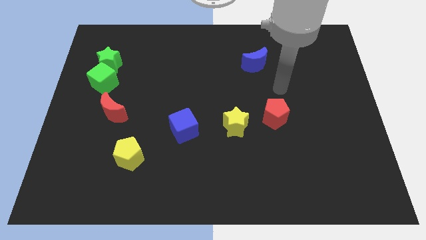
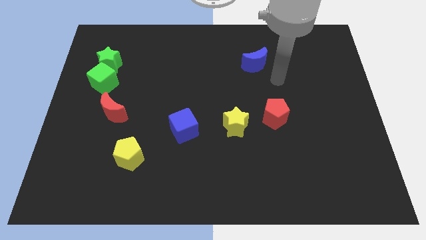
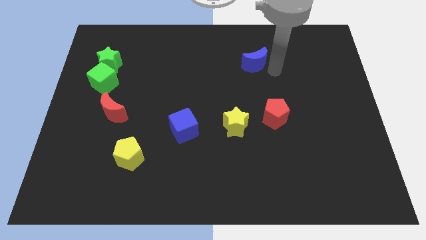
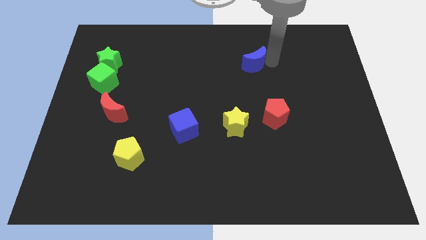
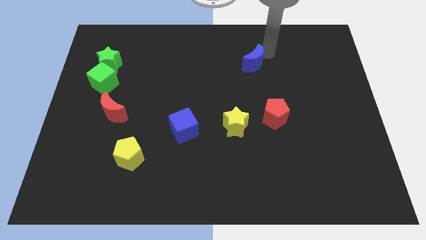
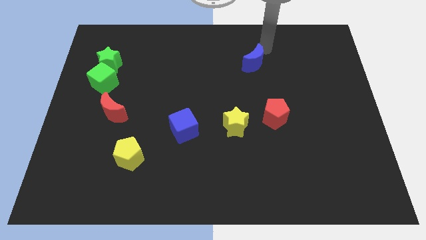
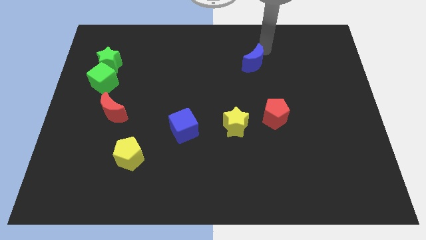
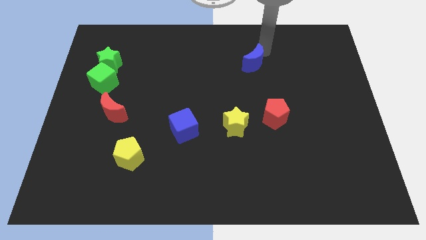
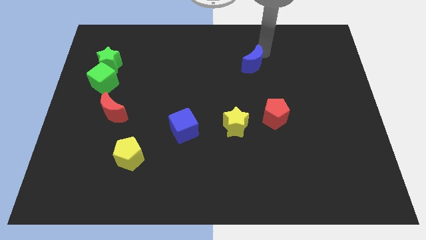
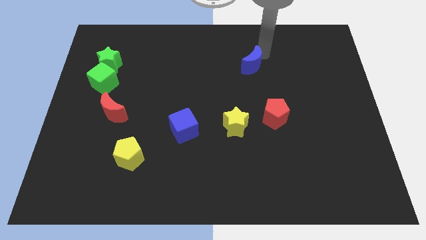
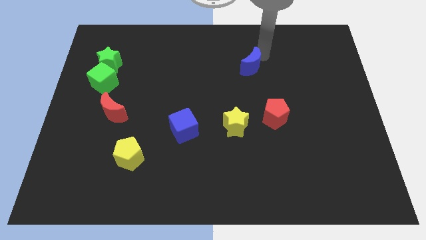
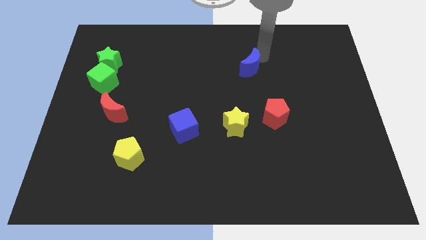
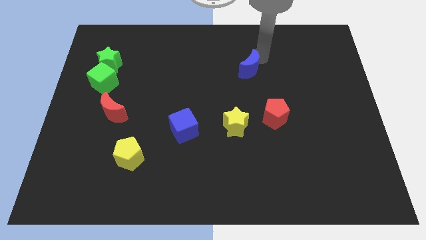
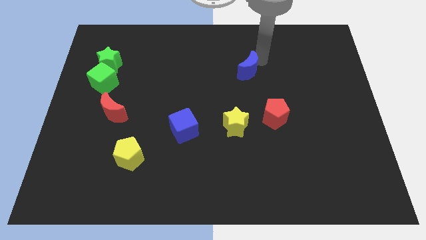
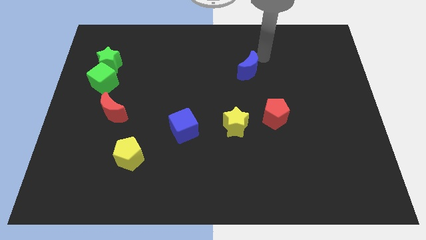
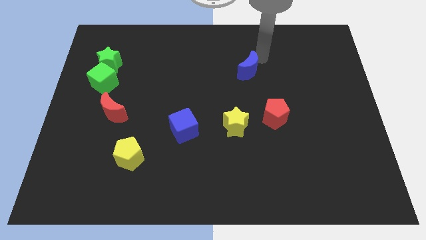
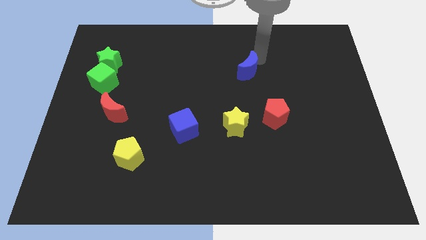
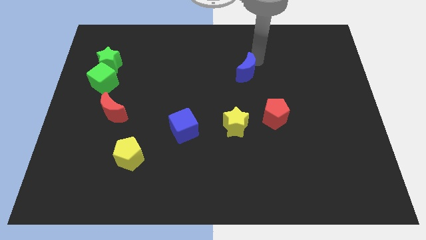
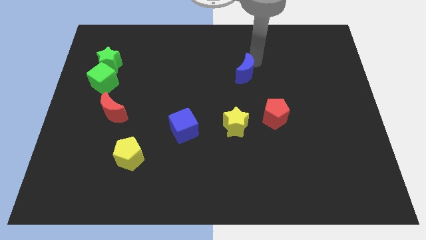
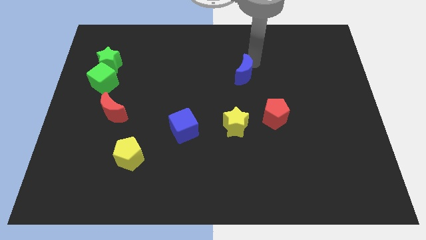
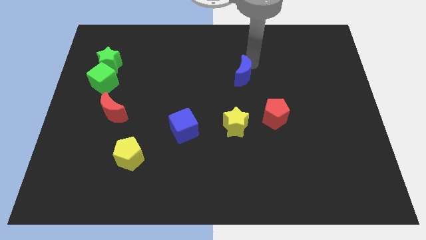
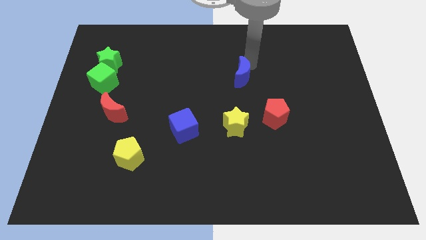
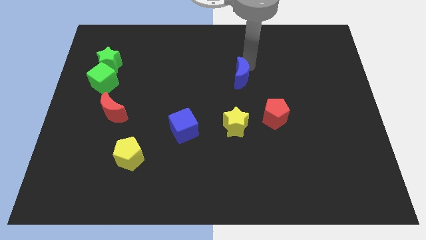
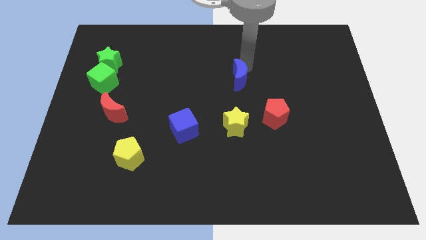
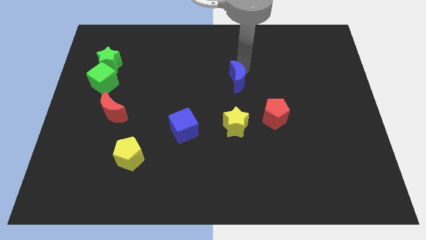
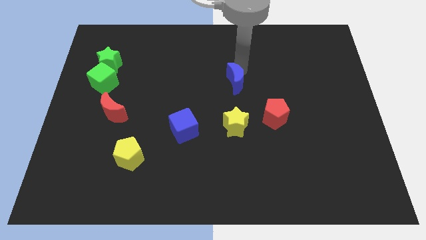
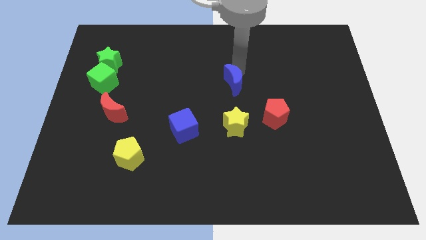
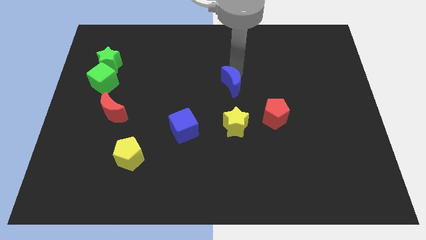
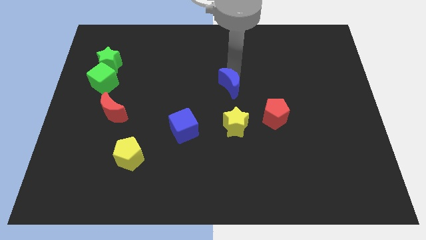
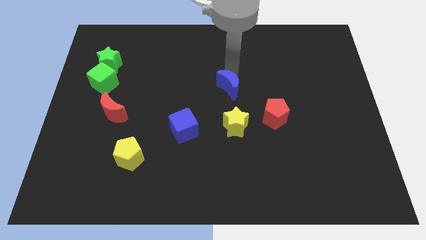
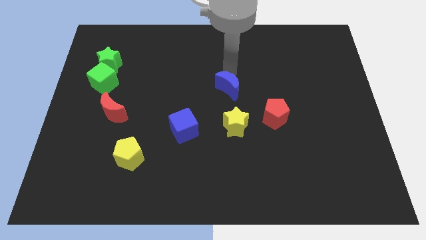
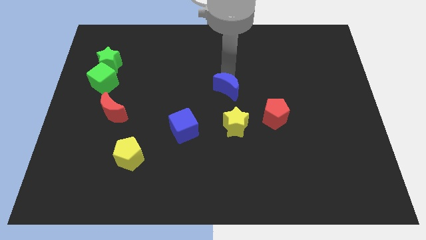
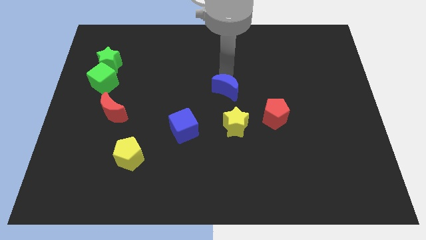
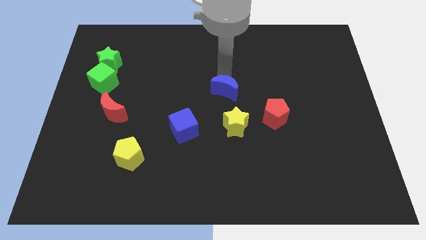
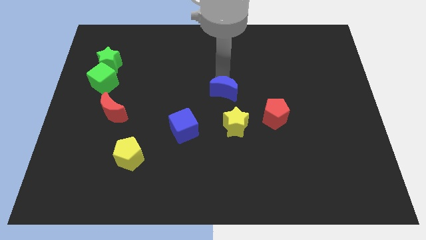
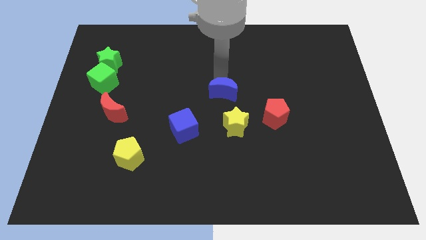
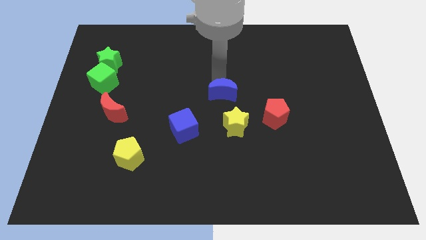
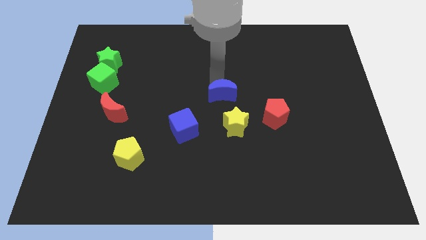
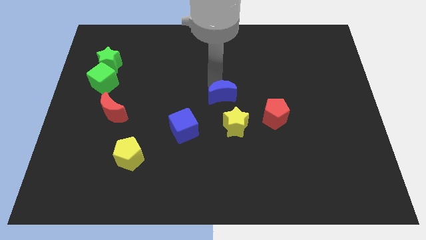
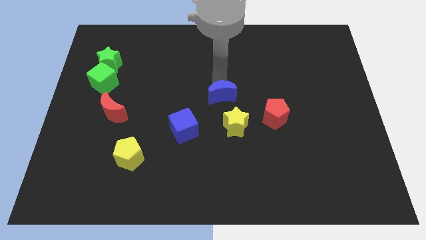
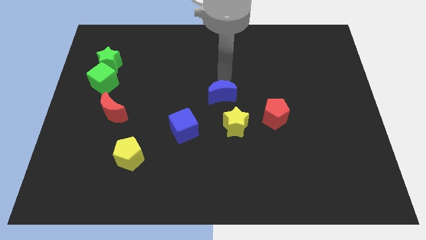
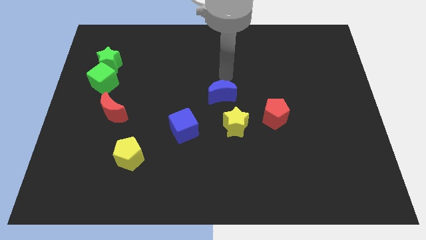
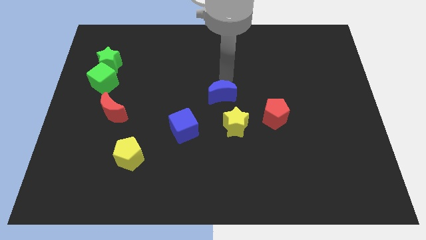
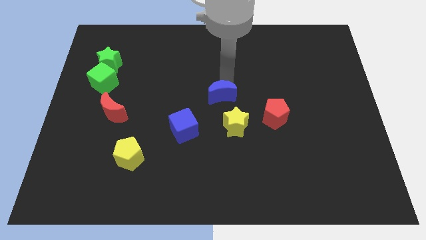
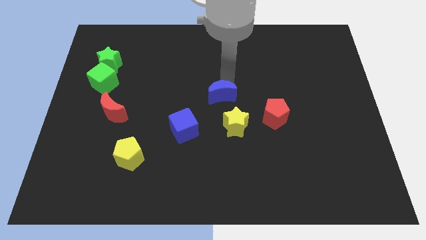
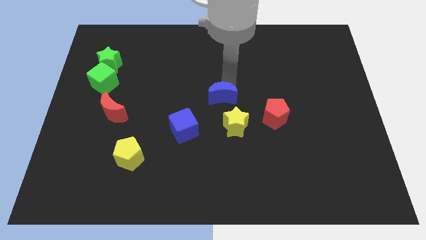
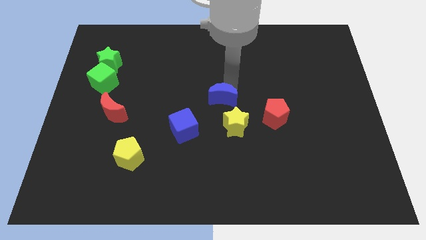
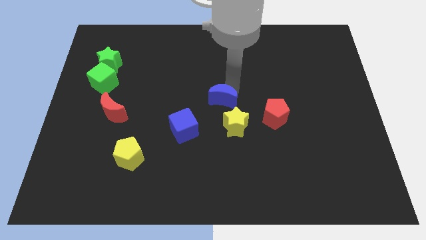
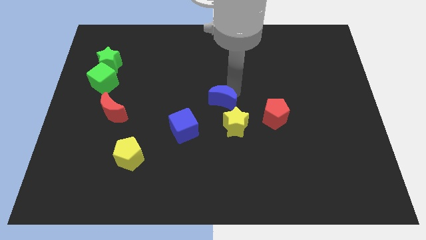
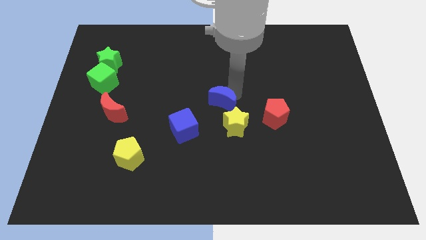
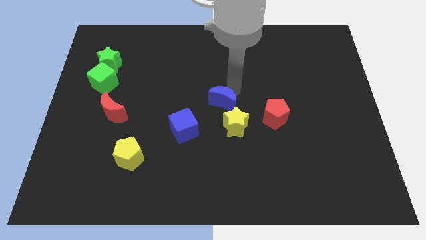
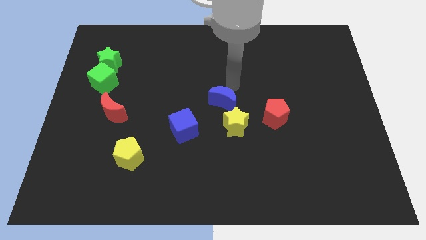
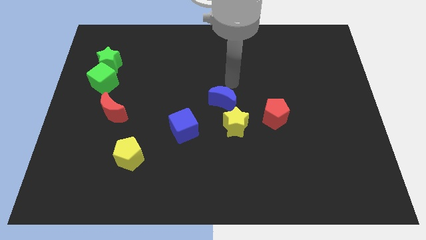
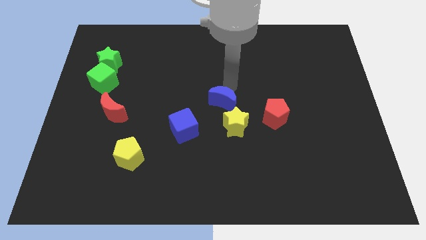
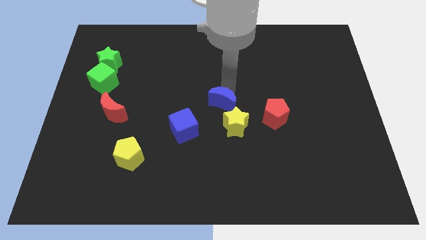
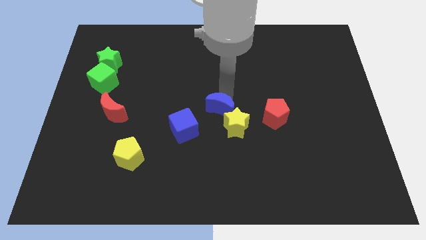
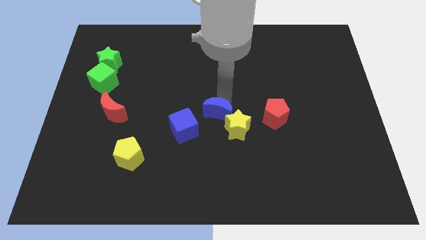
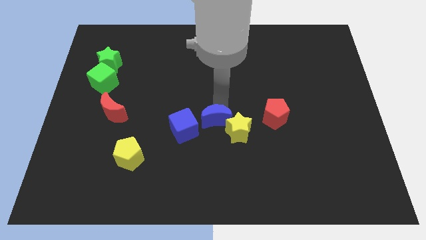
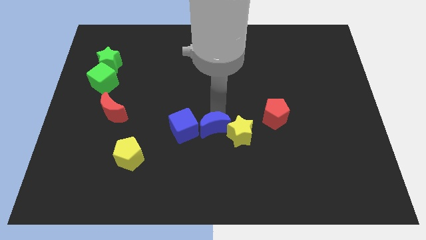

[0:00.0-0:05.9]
slide the blue moon to the bottom right of the blue cube
